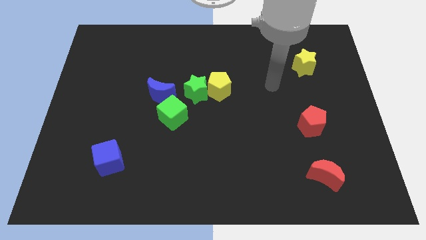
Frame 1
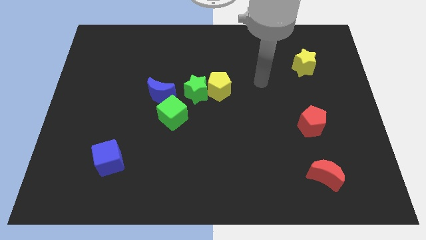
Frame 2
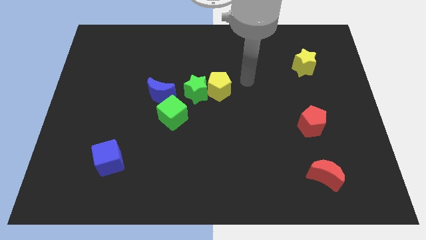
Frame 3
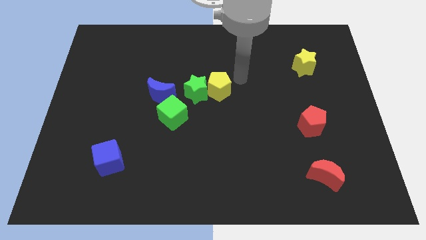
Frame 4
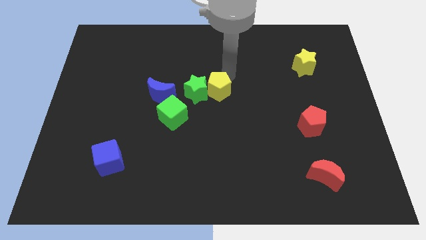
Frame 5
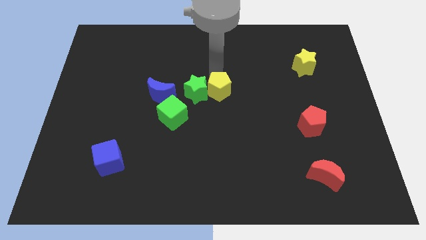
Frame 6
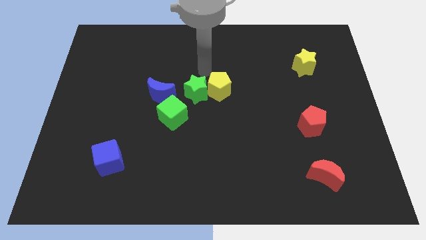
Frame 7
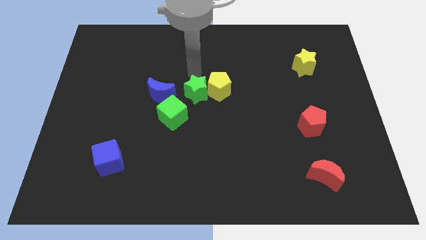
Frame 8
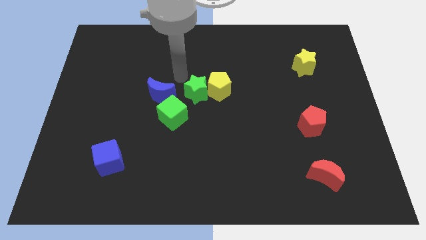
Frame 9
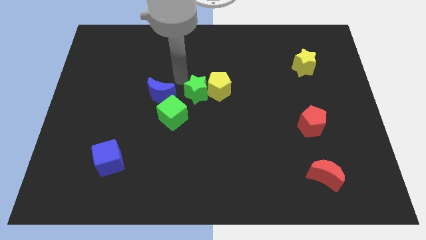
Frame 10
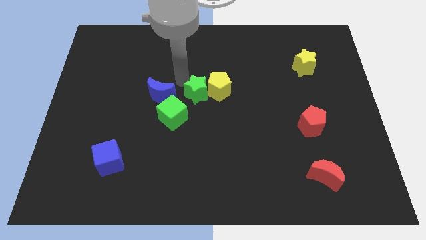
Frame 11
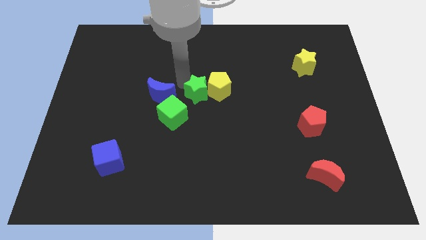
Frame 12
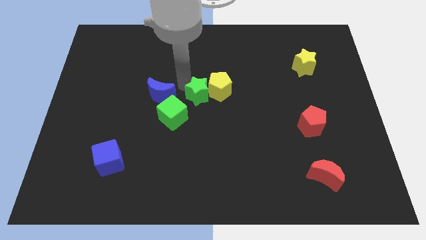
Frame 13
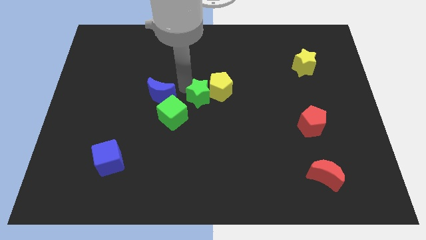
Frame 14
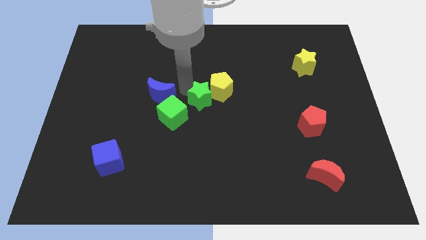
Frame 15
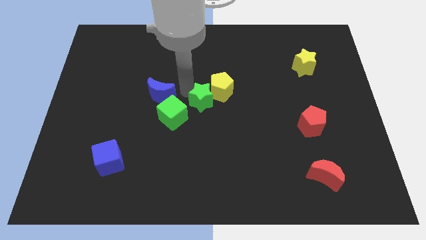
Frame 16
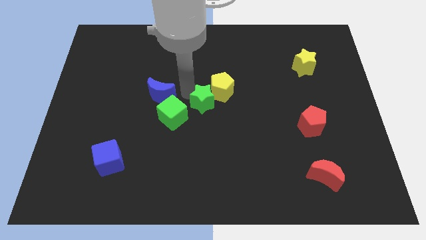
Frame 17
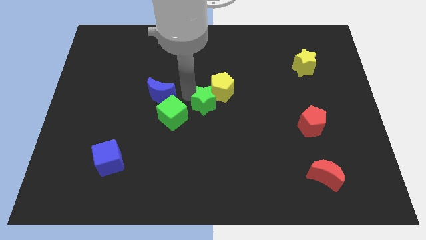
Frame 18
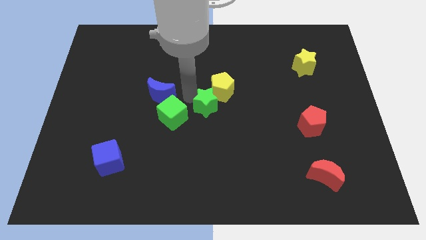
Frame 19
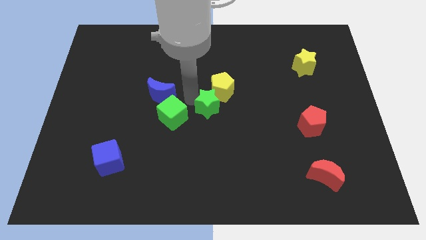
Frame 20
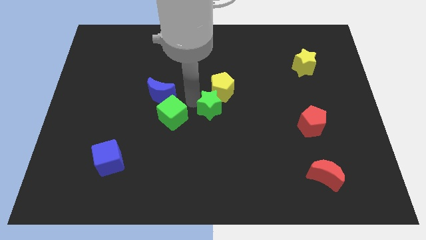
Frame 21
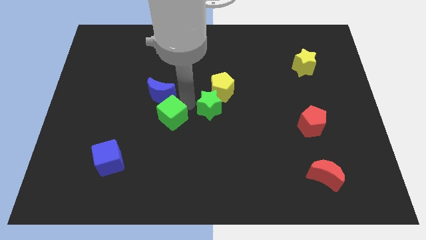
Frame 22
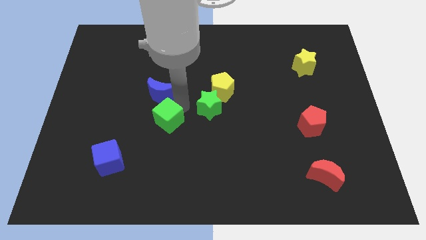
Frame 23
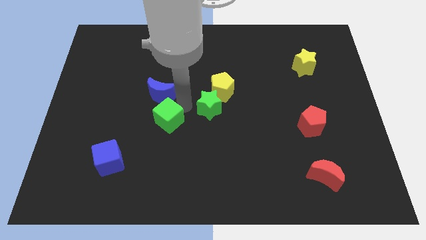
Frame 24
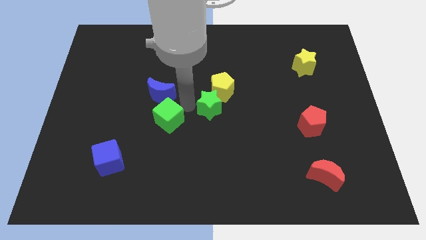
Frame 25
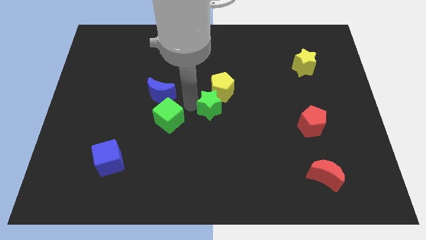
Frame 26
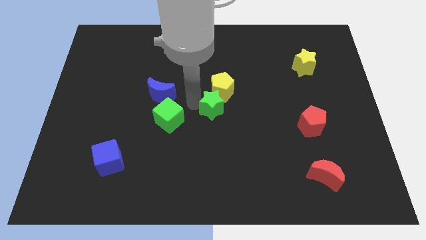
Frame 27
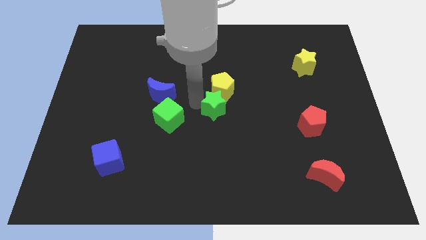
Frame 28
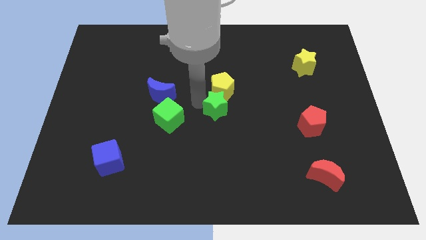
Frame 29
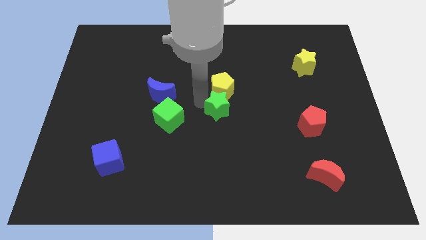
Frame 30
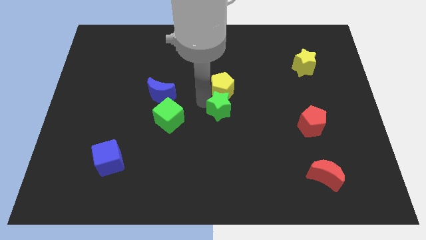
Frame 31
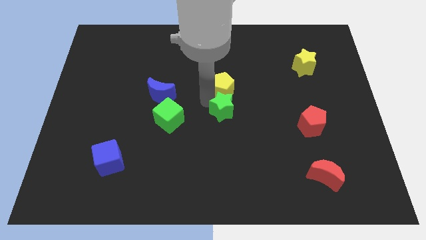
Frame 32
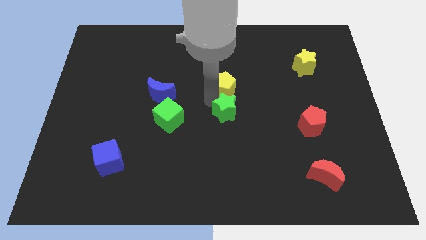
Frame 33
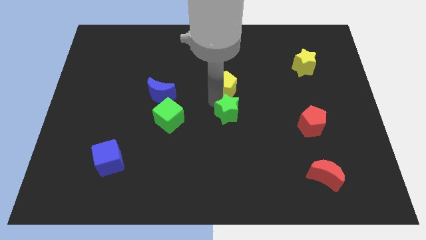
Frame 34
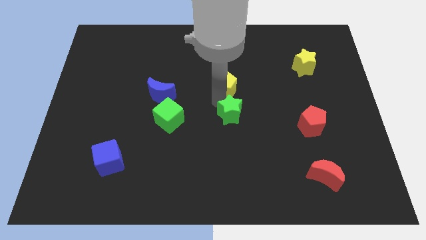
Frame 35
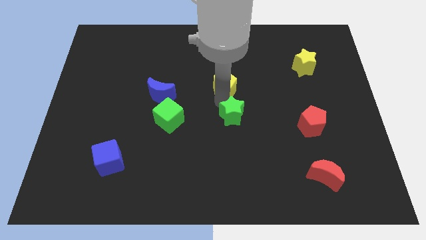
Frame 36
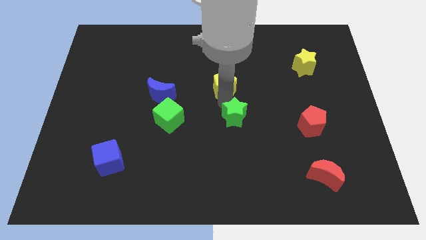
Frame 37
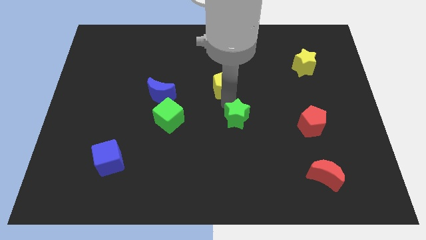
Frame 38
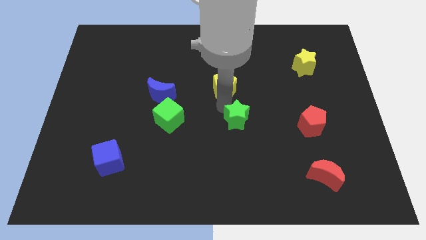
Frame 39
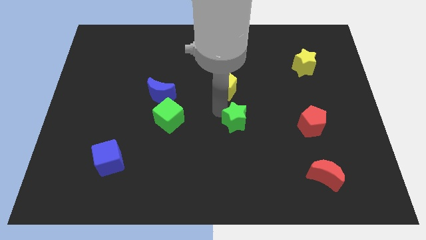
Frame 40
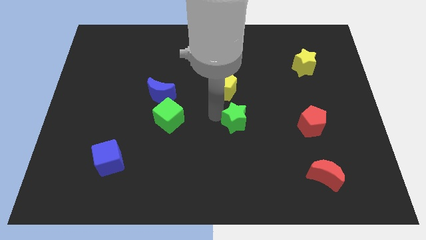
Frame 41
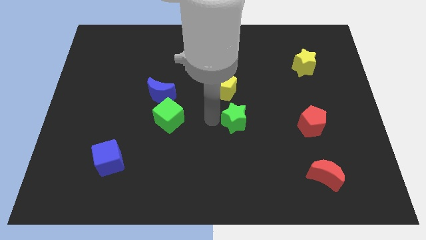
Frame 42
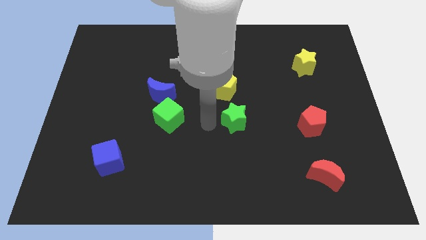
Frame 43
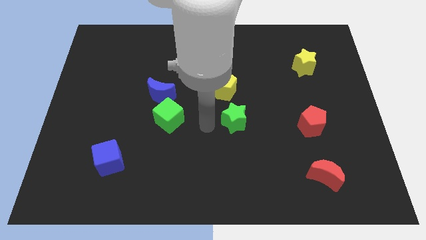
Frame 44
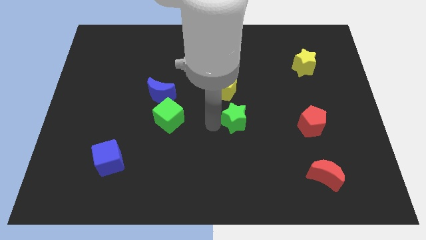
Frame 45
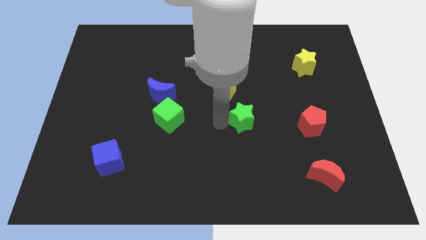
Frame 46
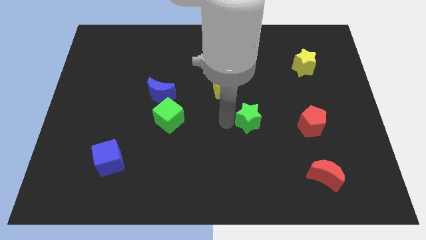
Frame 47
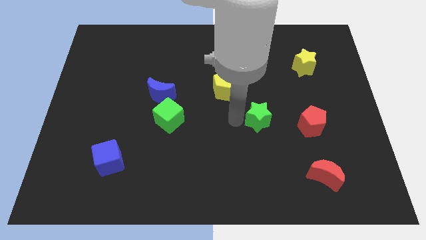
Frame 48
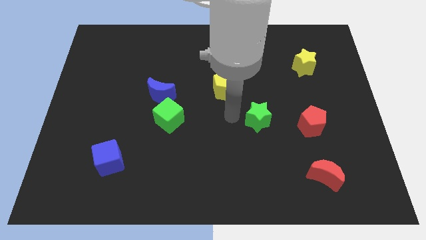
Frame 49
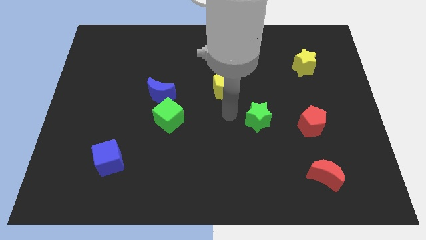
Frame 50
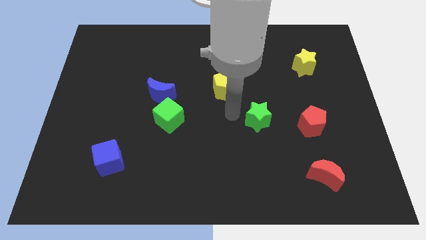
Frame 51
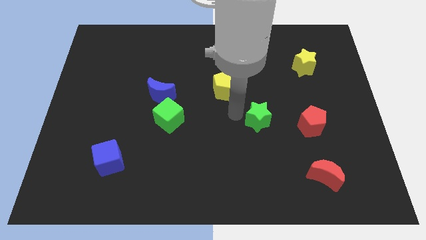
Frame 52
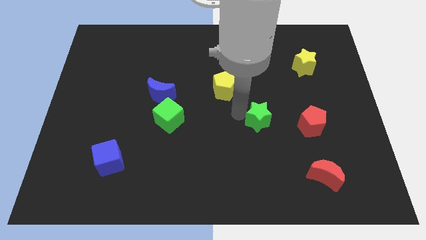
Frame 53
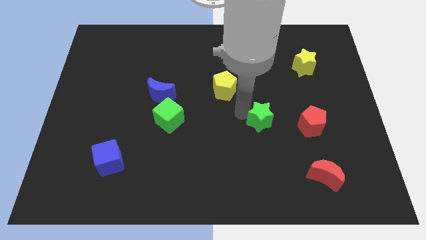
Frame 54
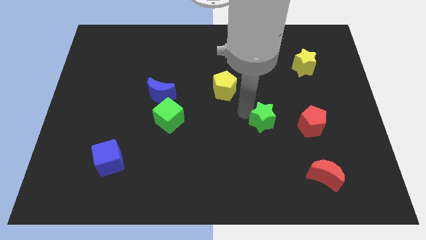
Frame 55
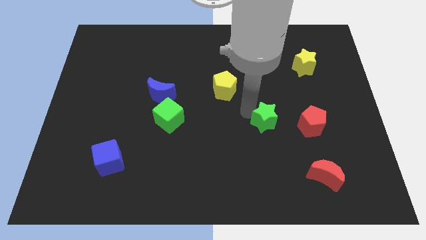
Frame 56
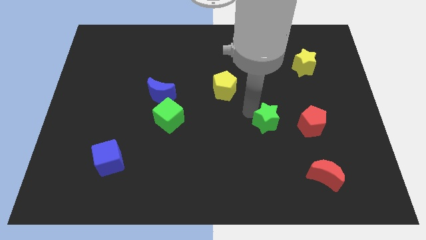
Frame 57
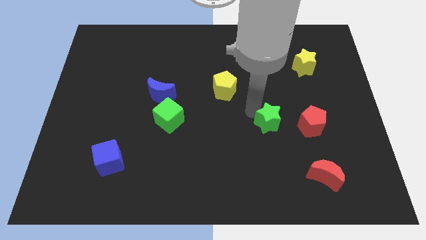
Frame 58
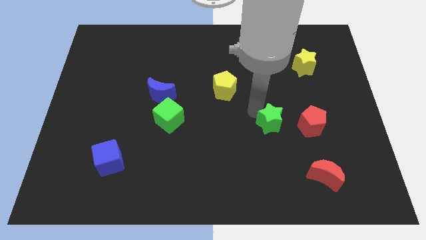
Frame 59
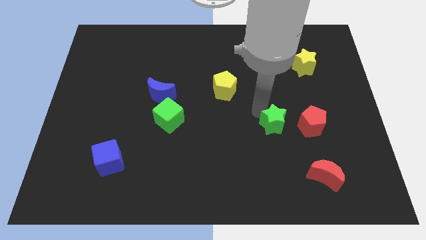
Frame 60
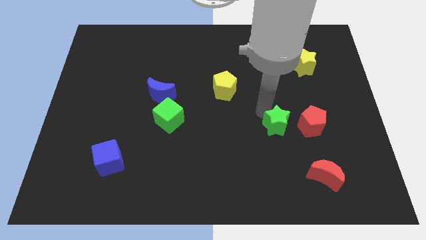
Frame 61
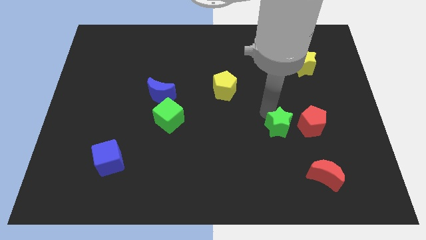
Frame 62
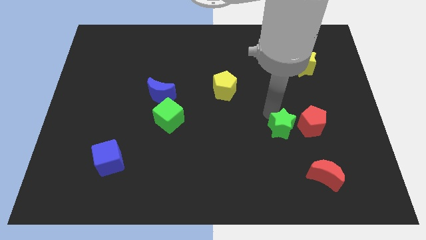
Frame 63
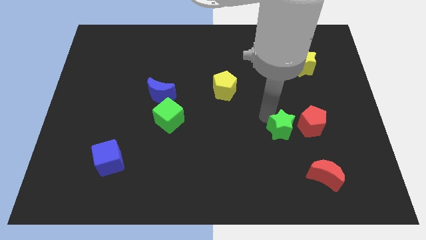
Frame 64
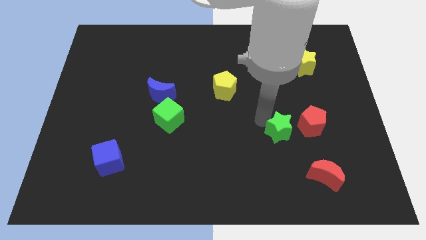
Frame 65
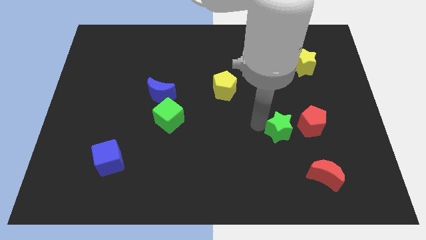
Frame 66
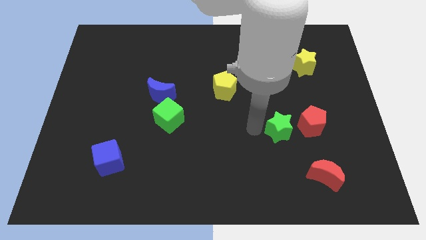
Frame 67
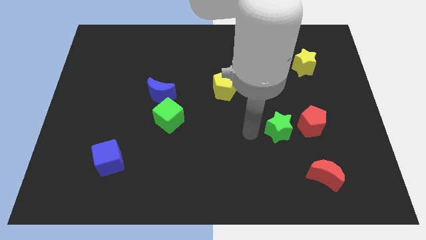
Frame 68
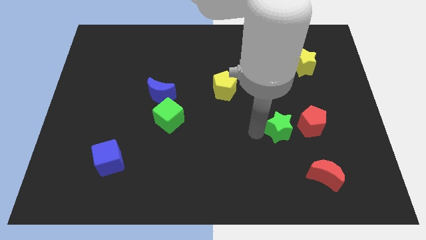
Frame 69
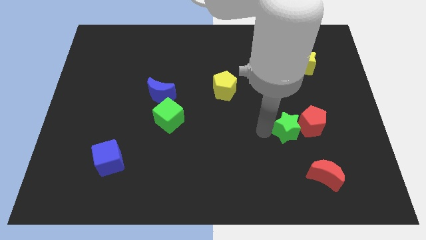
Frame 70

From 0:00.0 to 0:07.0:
push the green star next to the red pentagon
